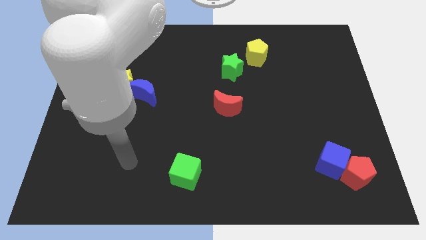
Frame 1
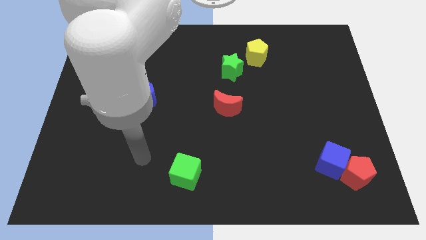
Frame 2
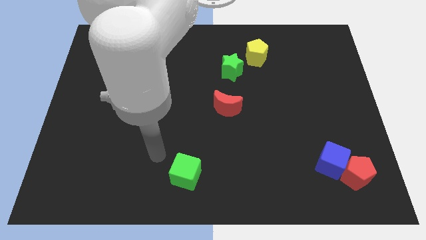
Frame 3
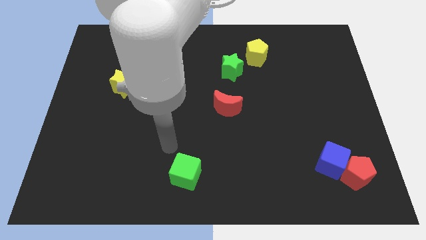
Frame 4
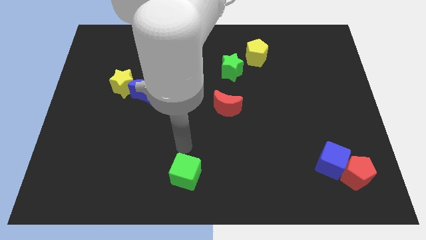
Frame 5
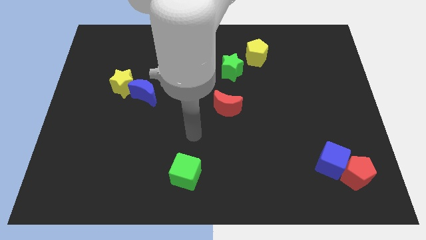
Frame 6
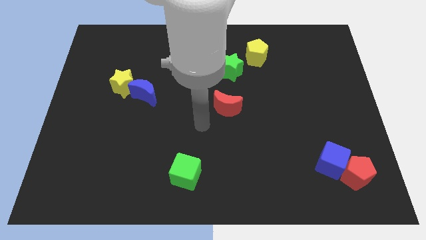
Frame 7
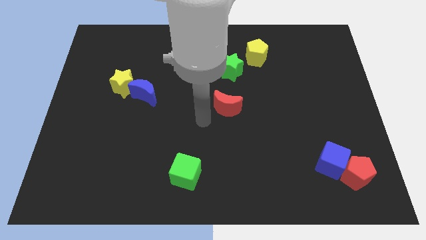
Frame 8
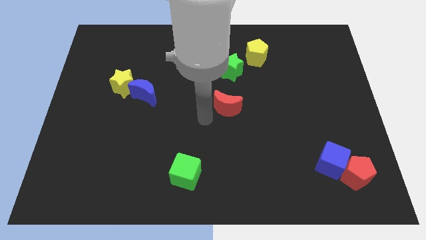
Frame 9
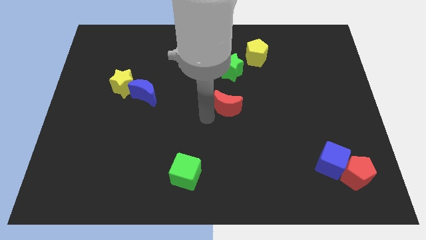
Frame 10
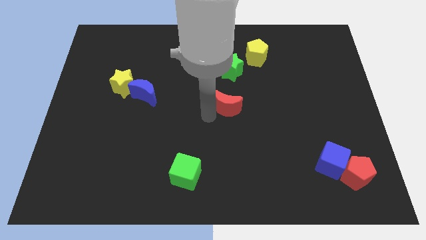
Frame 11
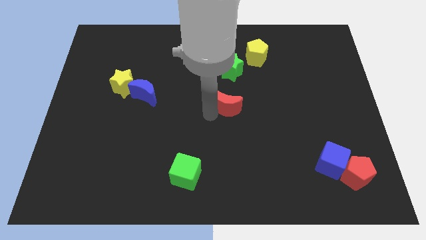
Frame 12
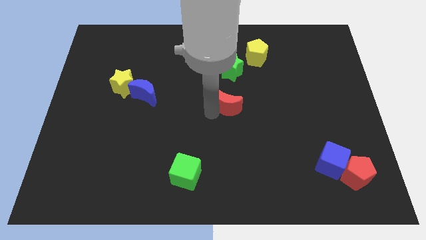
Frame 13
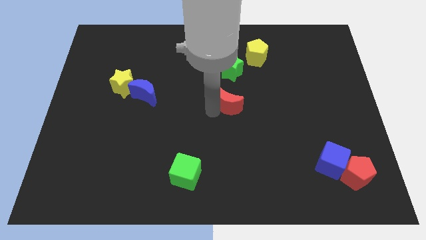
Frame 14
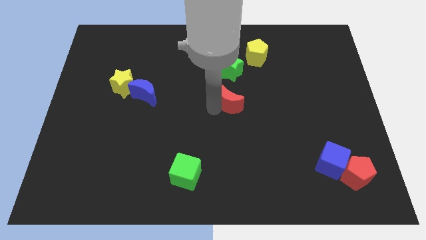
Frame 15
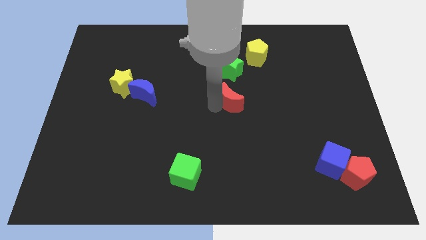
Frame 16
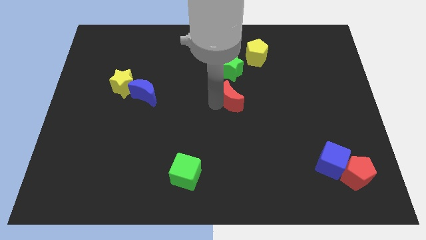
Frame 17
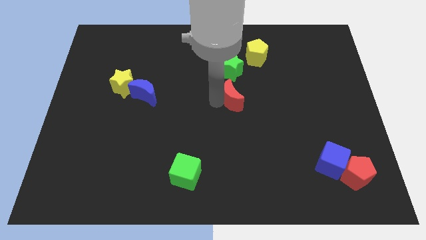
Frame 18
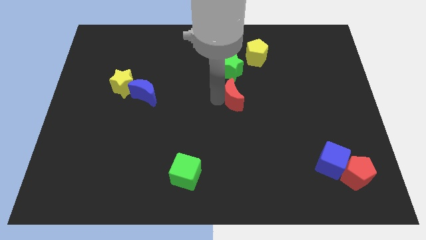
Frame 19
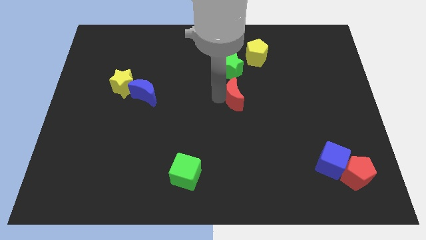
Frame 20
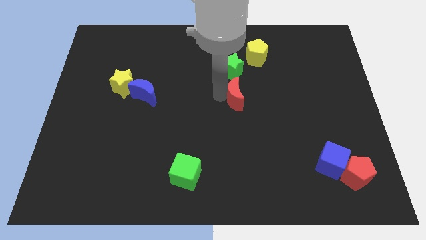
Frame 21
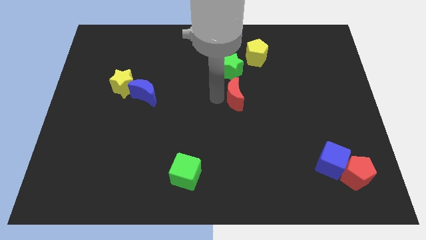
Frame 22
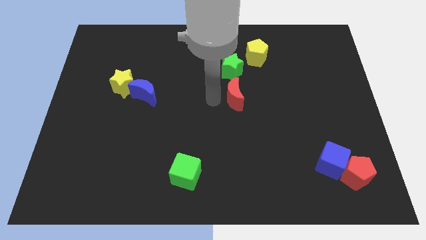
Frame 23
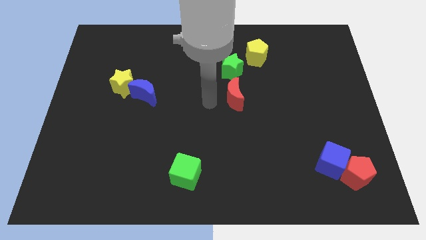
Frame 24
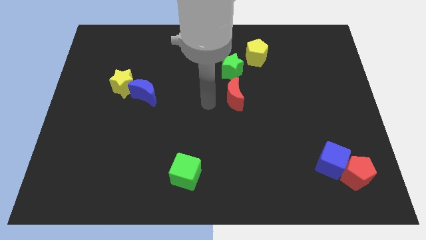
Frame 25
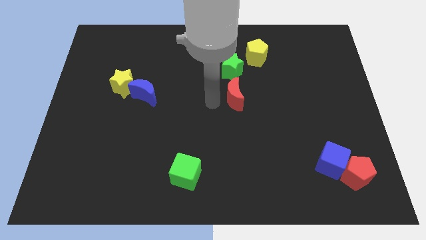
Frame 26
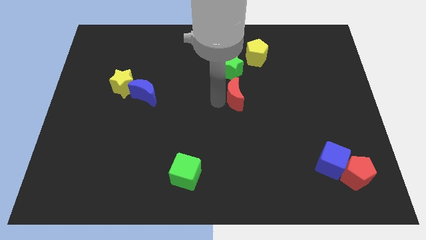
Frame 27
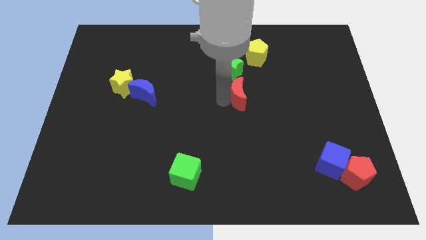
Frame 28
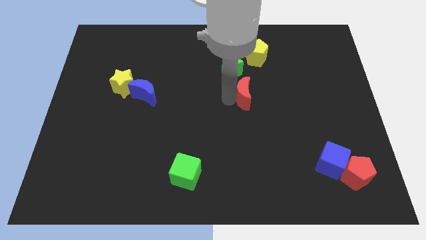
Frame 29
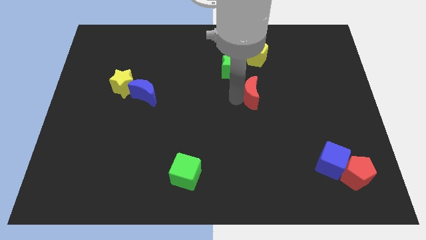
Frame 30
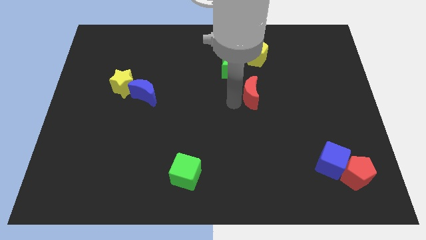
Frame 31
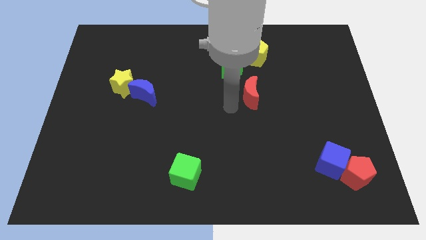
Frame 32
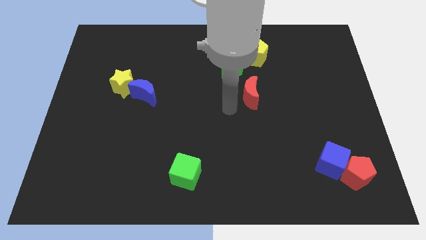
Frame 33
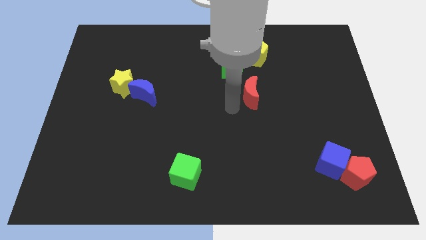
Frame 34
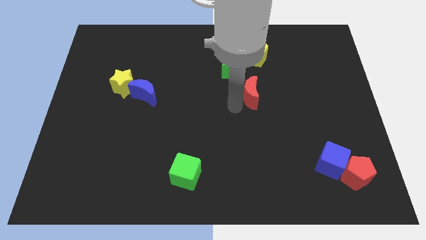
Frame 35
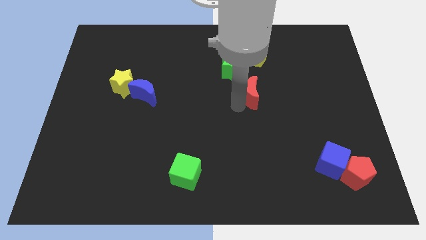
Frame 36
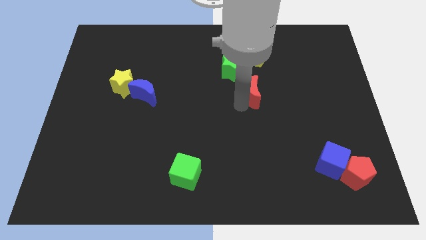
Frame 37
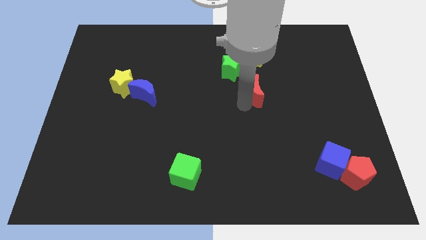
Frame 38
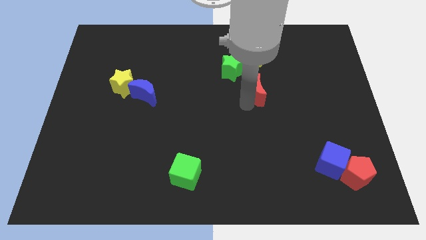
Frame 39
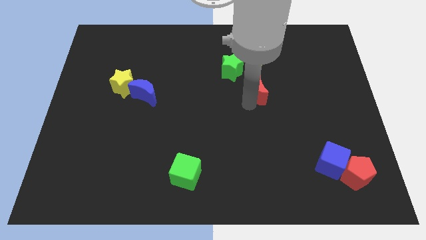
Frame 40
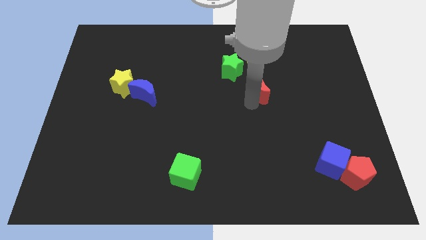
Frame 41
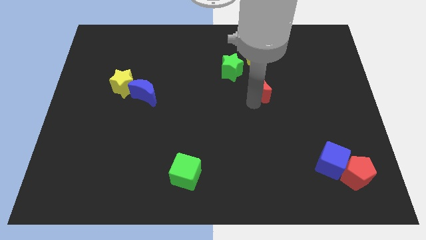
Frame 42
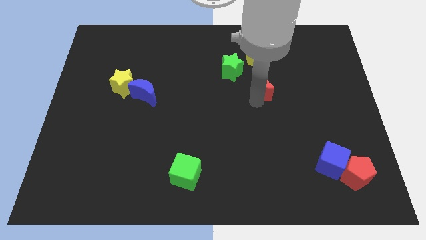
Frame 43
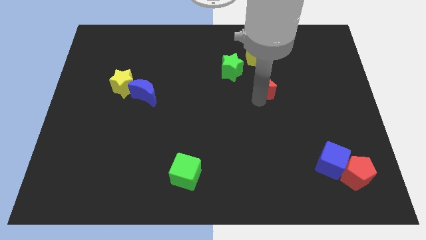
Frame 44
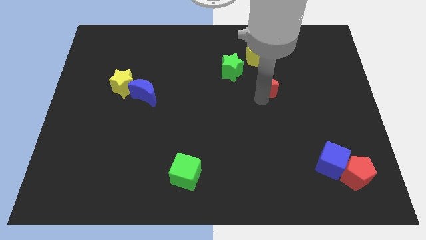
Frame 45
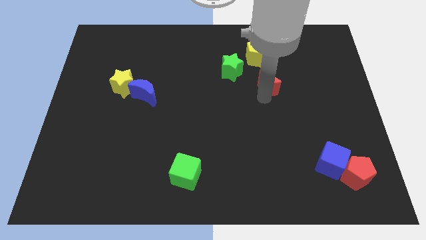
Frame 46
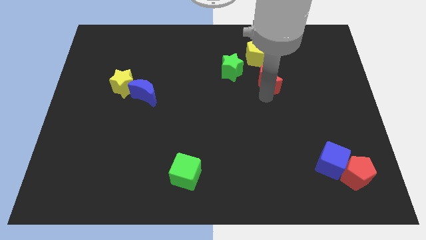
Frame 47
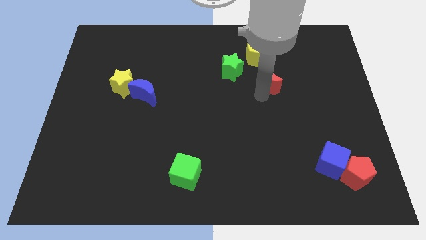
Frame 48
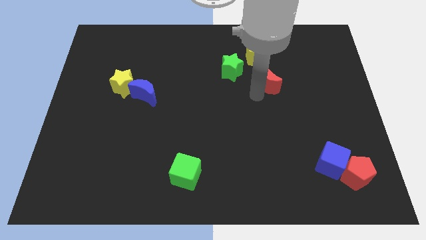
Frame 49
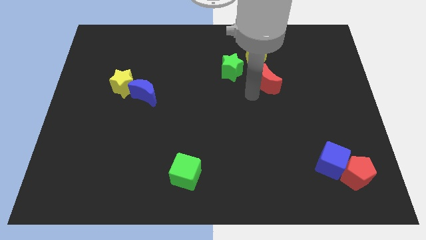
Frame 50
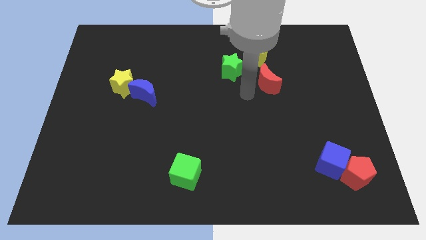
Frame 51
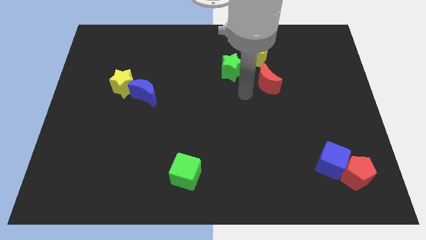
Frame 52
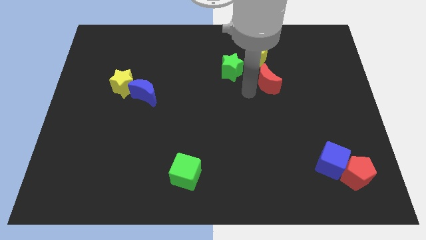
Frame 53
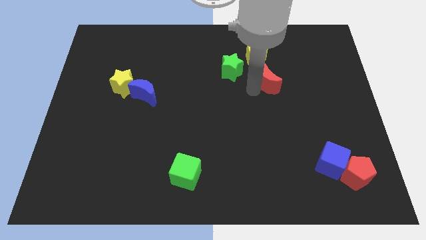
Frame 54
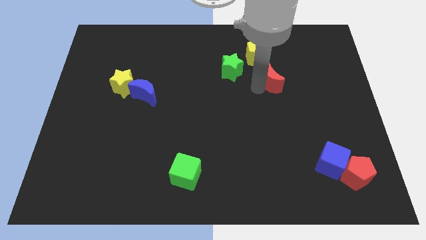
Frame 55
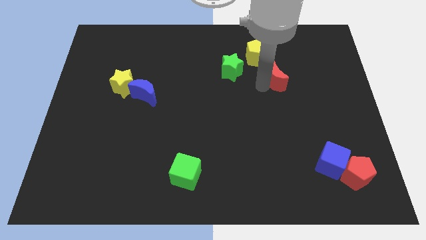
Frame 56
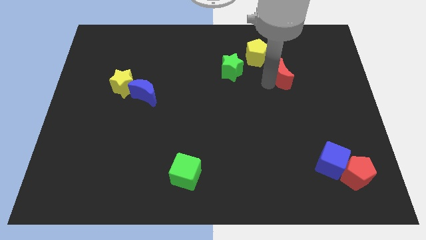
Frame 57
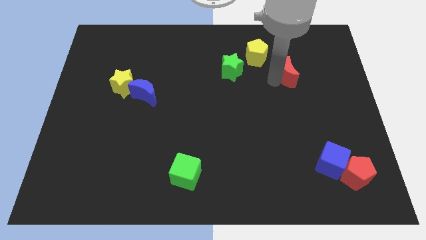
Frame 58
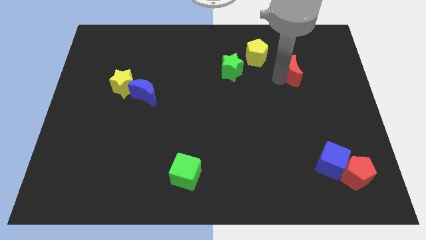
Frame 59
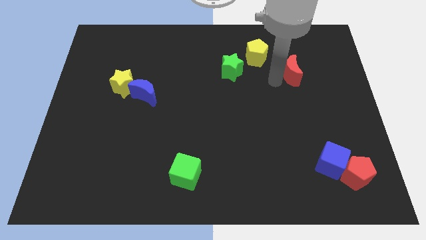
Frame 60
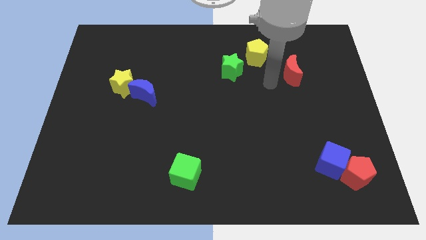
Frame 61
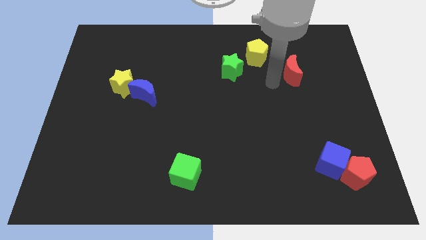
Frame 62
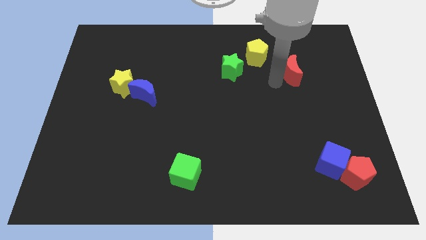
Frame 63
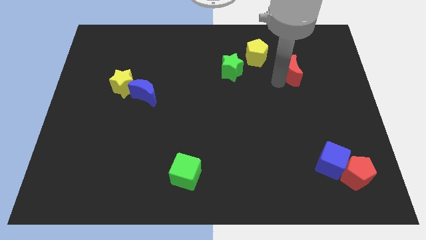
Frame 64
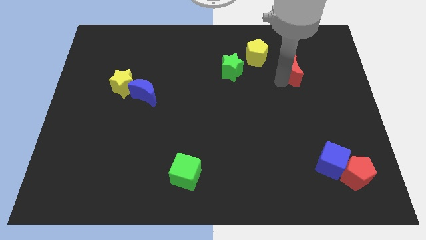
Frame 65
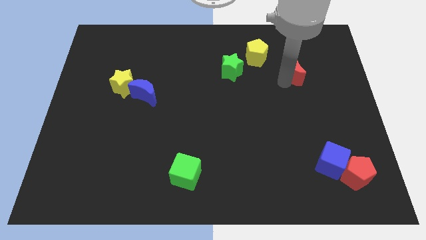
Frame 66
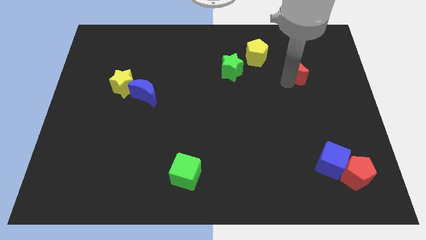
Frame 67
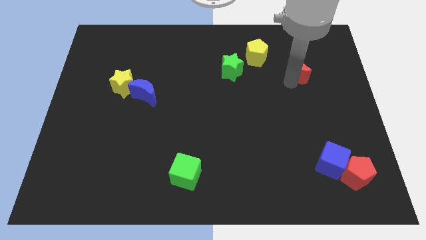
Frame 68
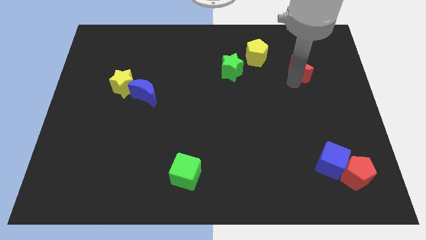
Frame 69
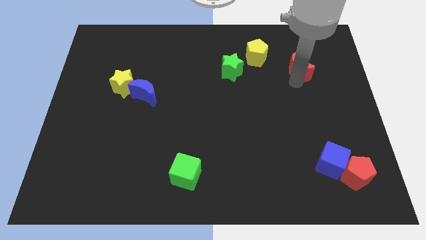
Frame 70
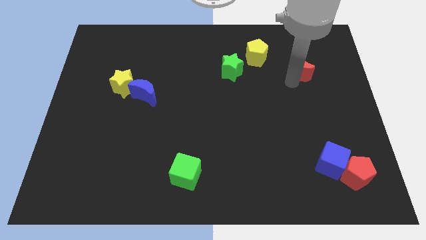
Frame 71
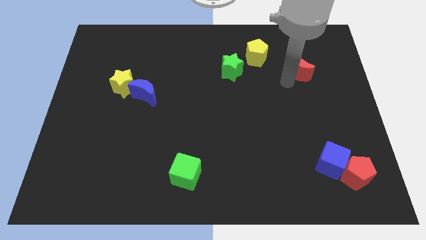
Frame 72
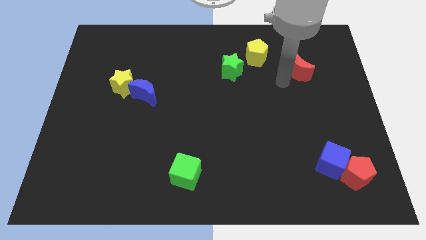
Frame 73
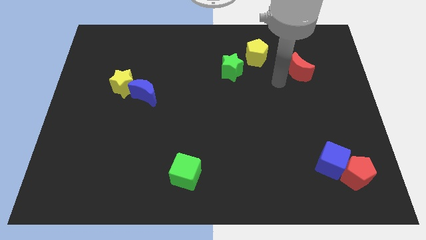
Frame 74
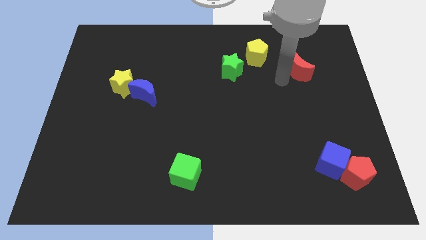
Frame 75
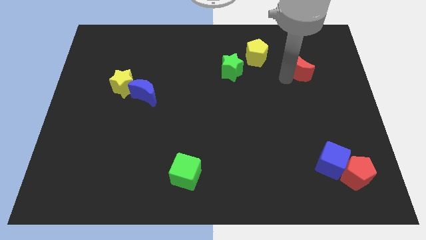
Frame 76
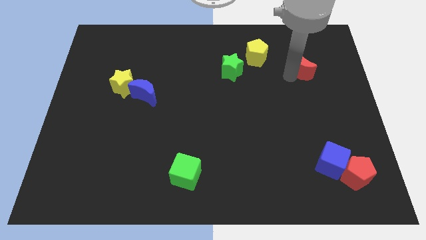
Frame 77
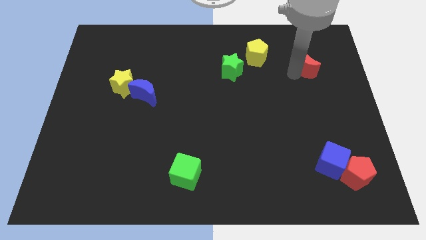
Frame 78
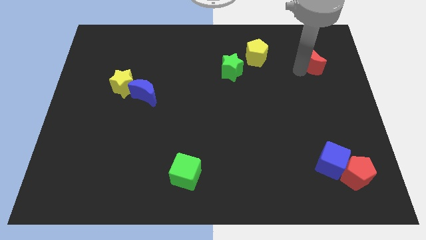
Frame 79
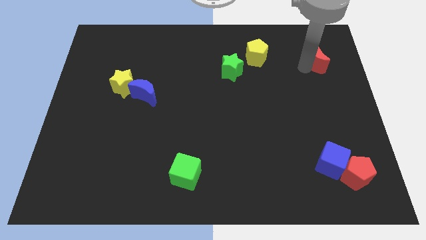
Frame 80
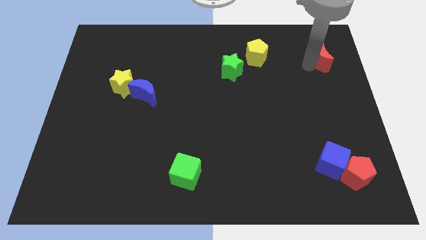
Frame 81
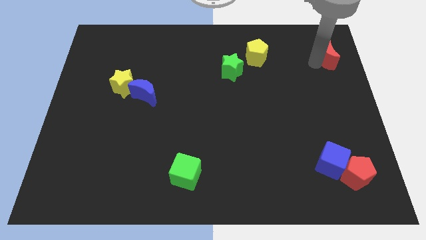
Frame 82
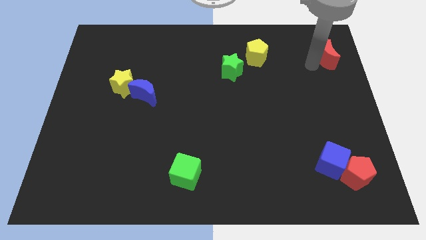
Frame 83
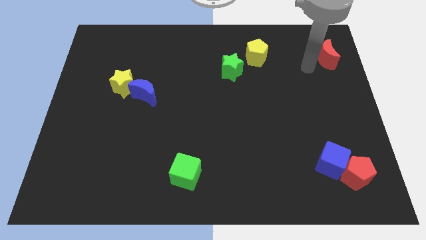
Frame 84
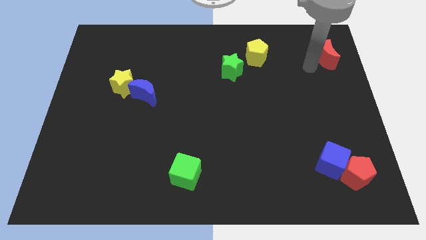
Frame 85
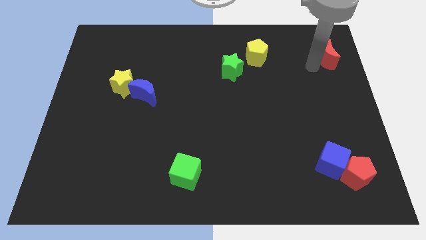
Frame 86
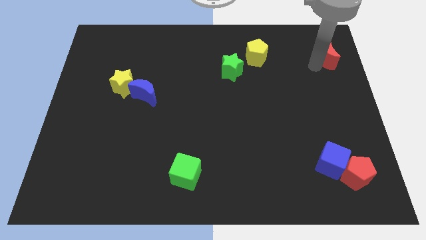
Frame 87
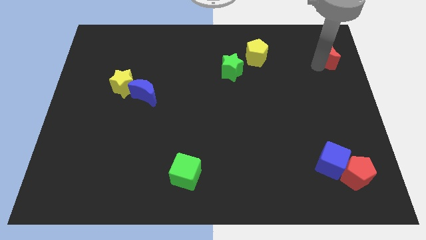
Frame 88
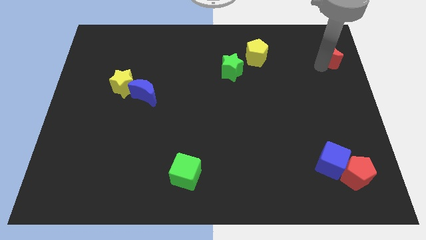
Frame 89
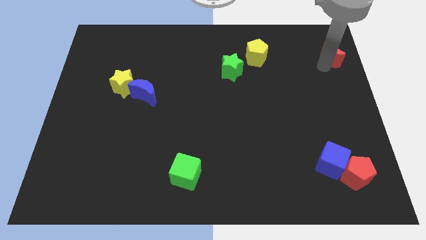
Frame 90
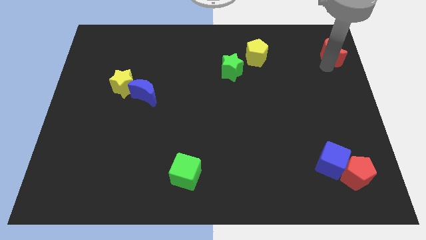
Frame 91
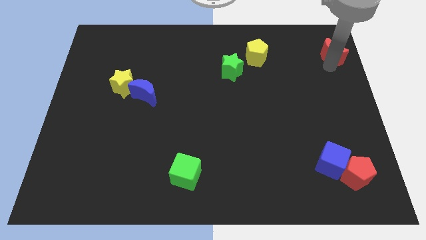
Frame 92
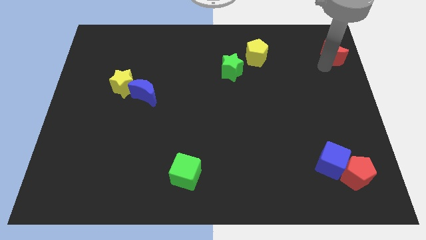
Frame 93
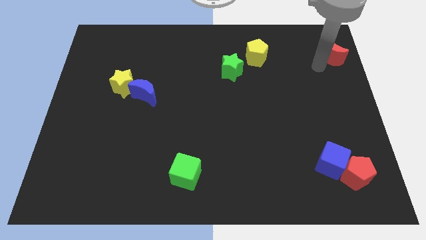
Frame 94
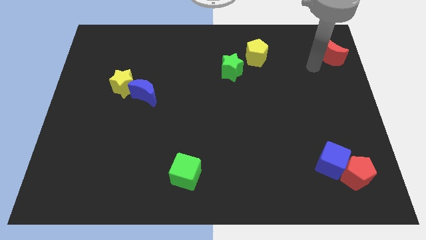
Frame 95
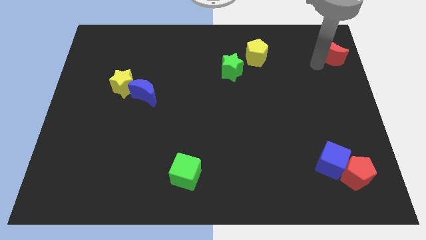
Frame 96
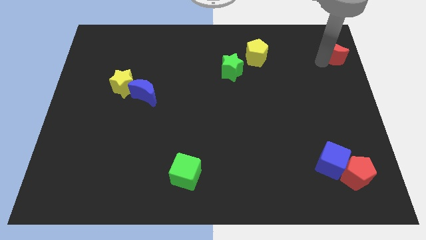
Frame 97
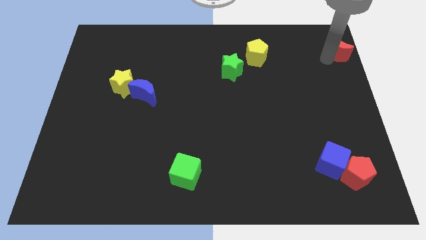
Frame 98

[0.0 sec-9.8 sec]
slide the red moon to the upper right corner
